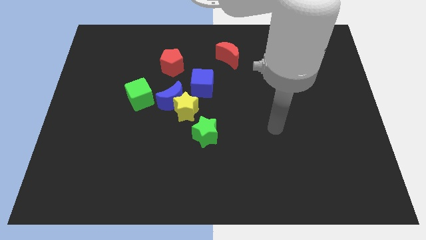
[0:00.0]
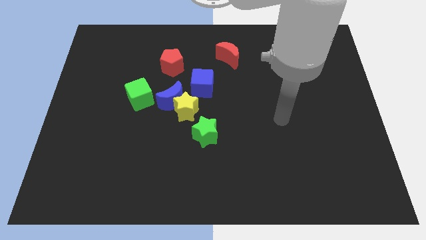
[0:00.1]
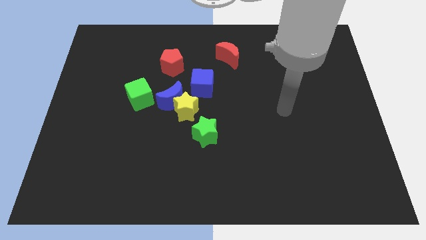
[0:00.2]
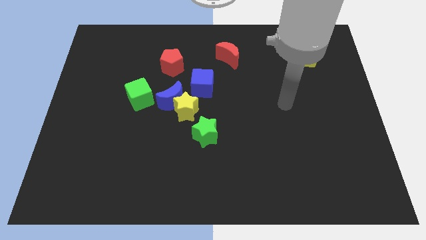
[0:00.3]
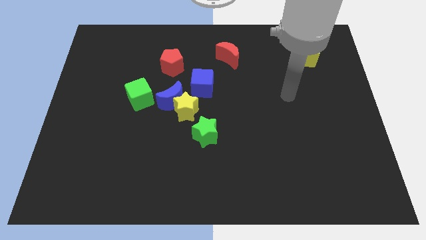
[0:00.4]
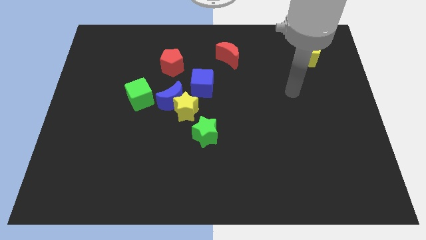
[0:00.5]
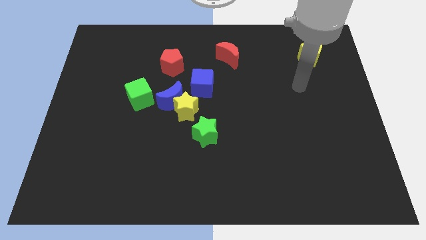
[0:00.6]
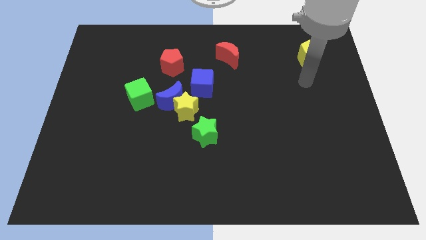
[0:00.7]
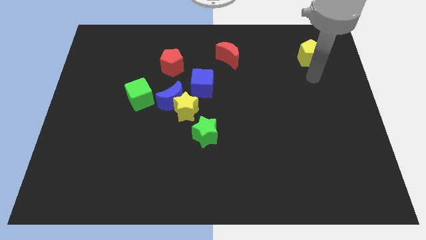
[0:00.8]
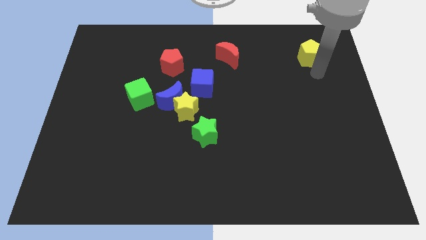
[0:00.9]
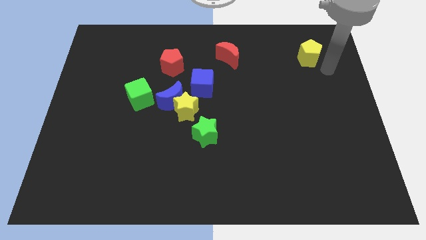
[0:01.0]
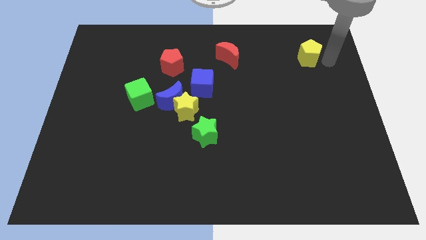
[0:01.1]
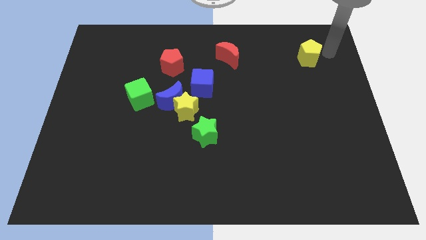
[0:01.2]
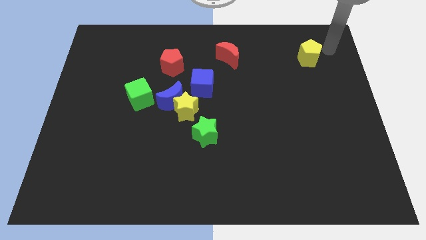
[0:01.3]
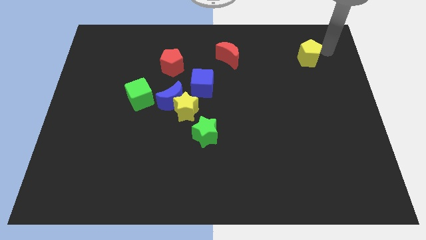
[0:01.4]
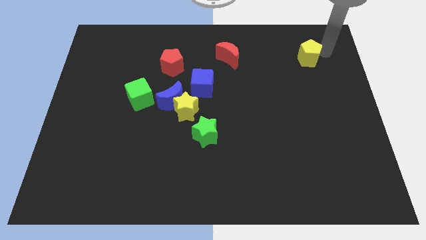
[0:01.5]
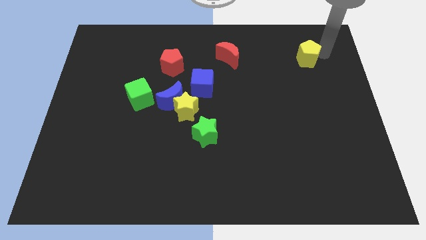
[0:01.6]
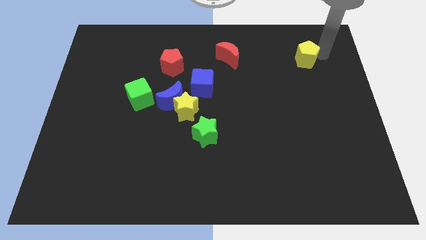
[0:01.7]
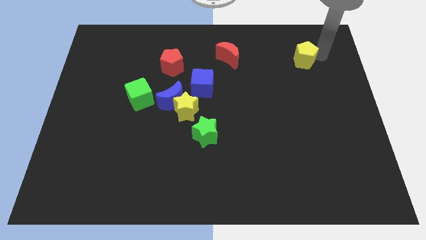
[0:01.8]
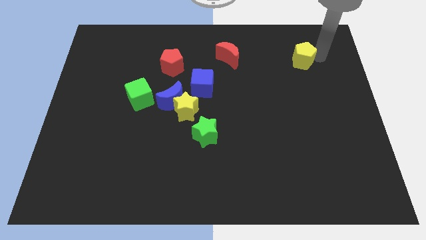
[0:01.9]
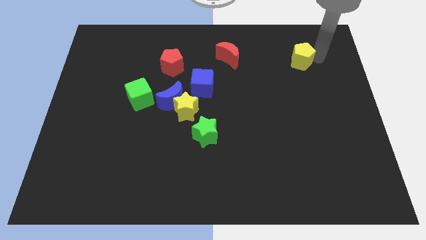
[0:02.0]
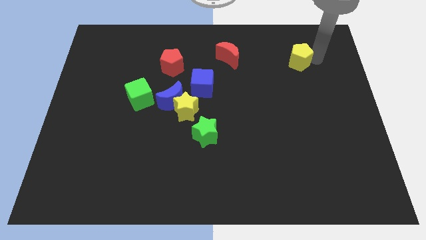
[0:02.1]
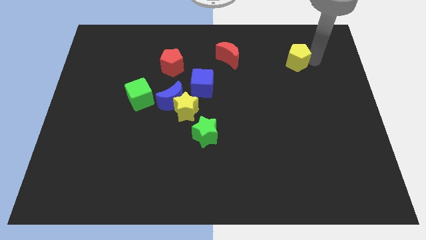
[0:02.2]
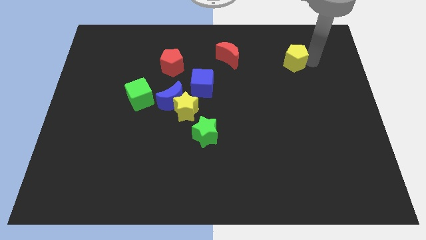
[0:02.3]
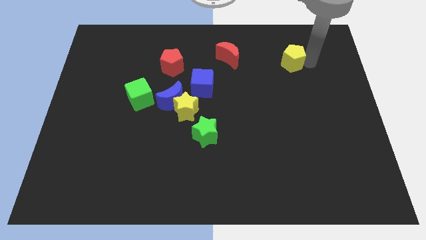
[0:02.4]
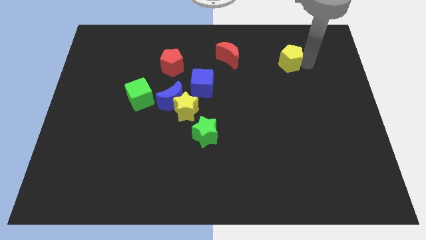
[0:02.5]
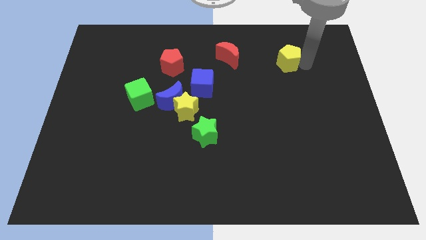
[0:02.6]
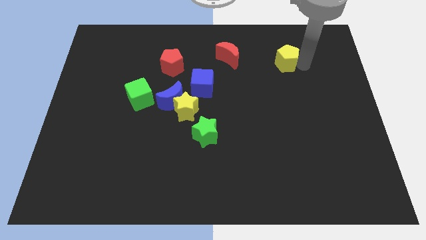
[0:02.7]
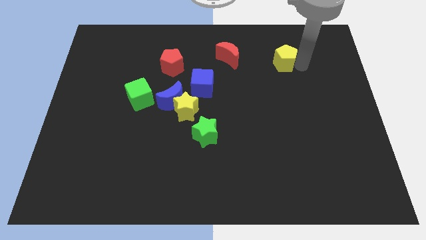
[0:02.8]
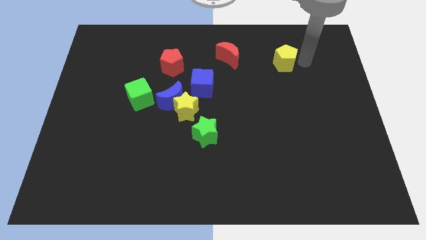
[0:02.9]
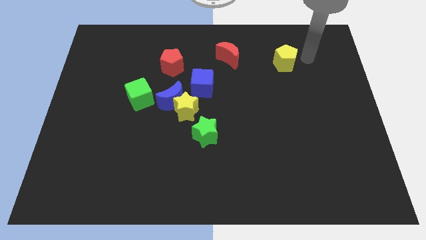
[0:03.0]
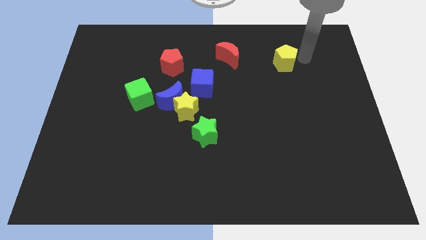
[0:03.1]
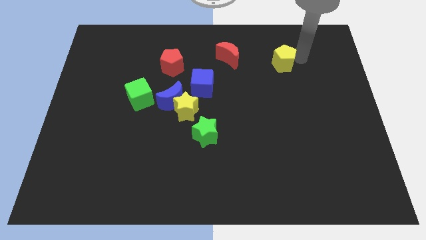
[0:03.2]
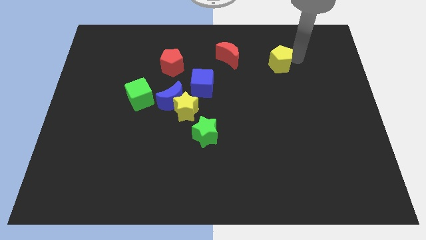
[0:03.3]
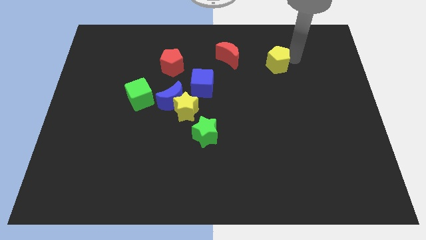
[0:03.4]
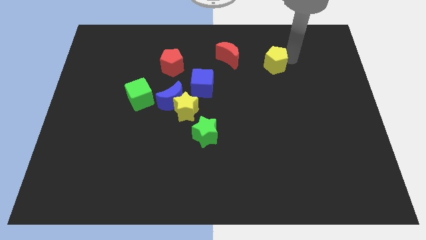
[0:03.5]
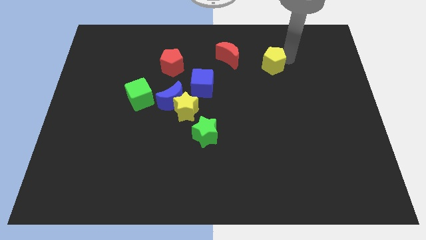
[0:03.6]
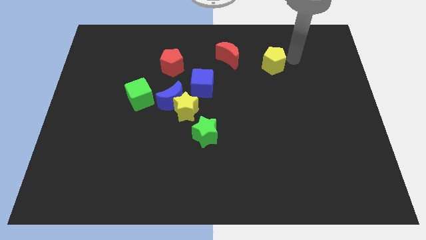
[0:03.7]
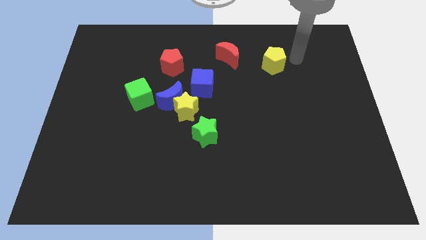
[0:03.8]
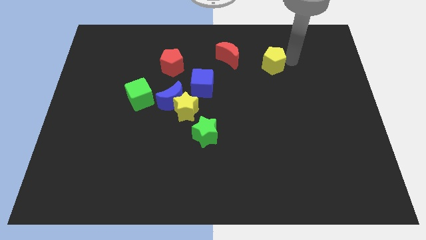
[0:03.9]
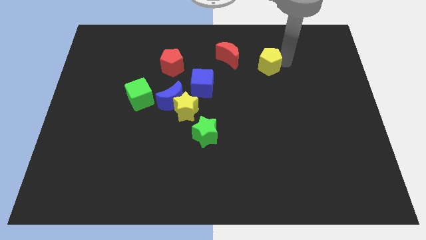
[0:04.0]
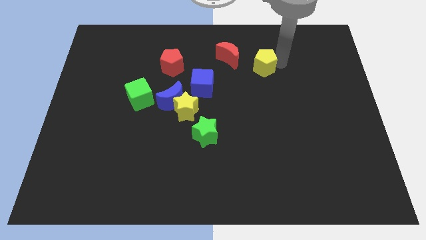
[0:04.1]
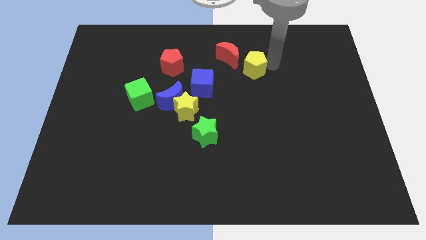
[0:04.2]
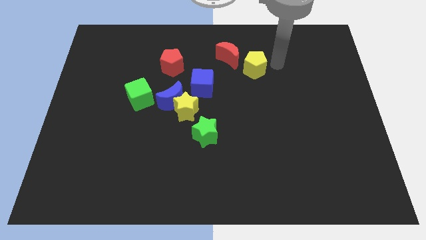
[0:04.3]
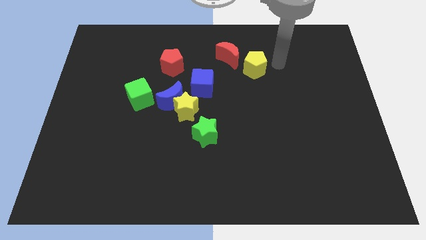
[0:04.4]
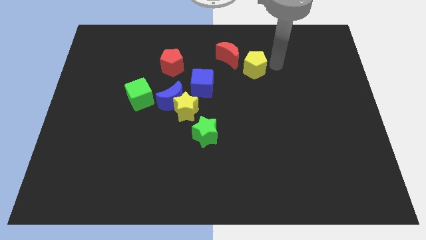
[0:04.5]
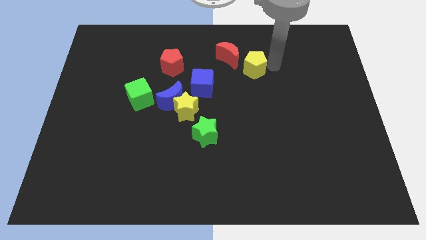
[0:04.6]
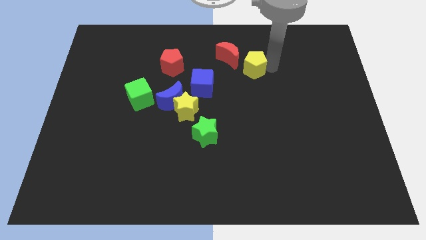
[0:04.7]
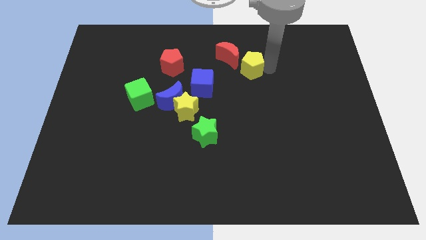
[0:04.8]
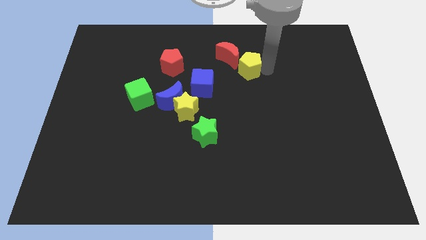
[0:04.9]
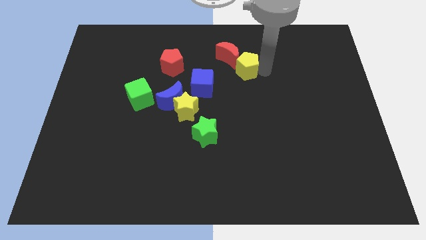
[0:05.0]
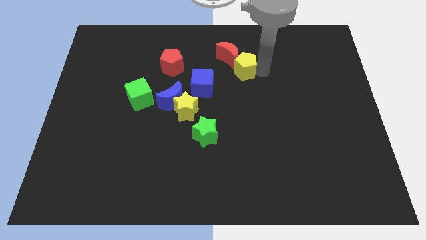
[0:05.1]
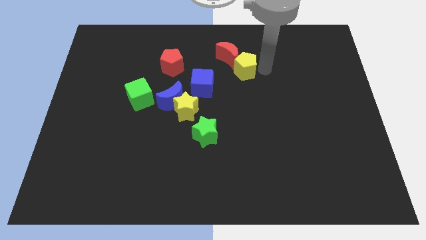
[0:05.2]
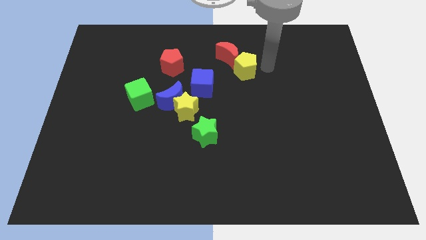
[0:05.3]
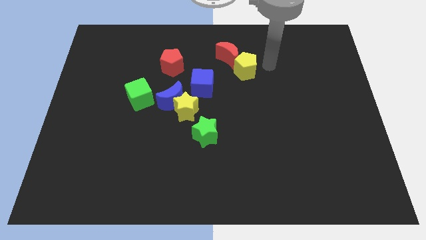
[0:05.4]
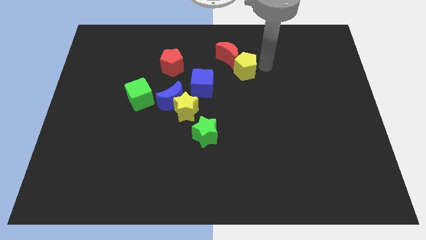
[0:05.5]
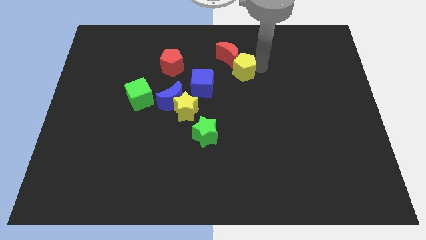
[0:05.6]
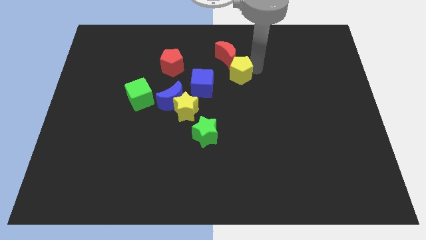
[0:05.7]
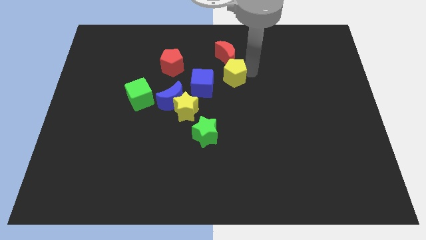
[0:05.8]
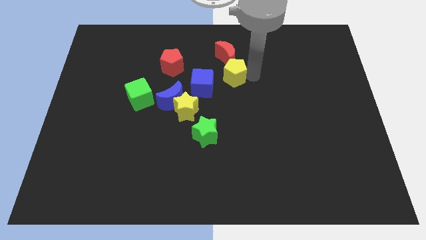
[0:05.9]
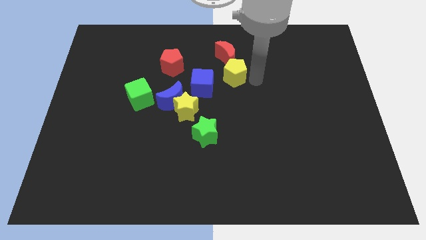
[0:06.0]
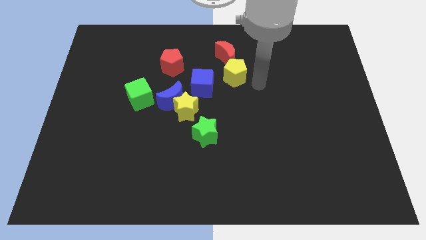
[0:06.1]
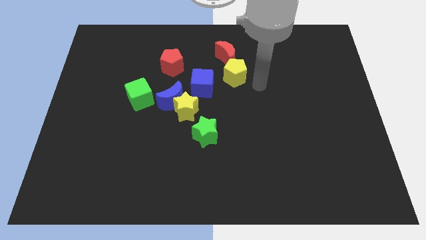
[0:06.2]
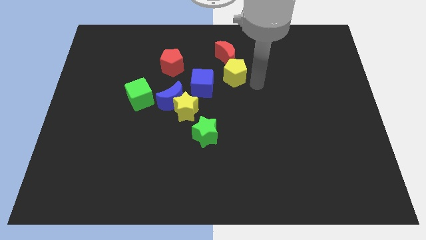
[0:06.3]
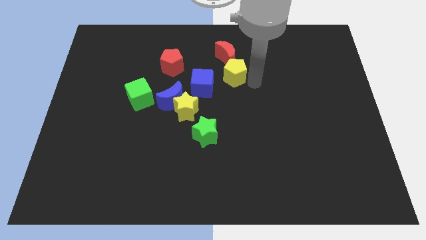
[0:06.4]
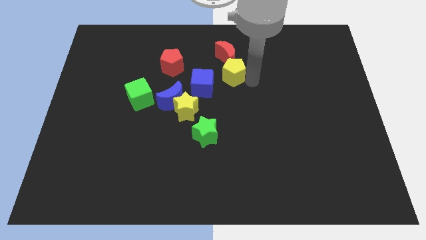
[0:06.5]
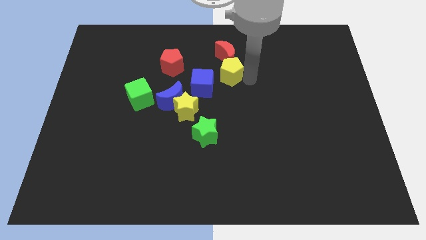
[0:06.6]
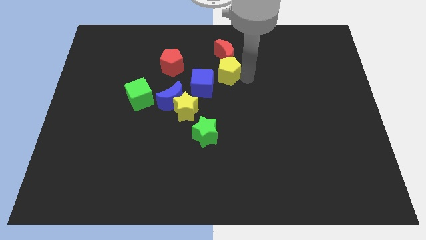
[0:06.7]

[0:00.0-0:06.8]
slide the yellow pentagon left

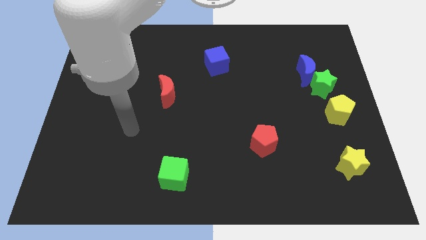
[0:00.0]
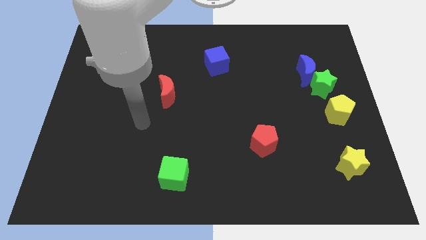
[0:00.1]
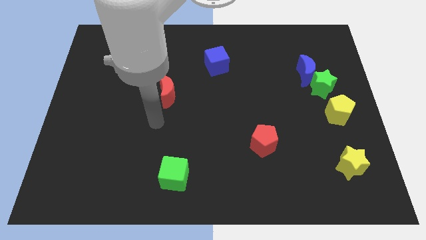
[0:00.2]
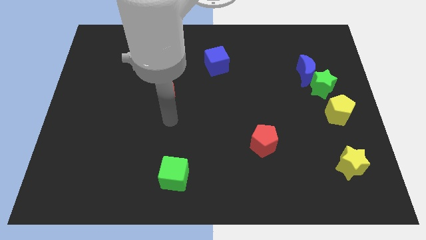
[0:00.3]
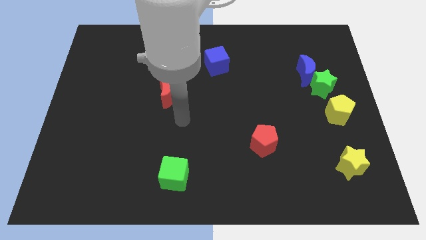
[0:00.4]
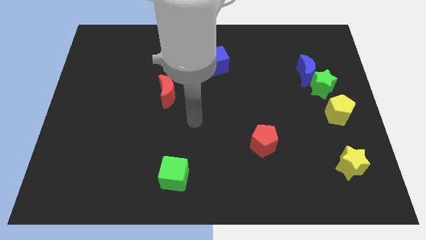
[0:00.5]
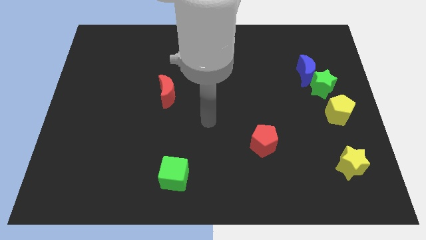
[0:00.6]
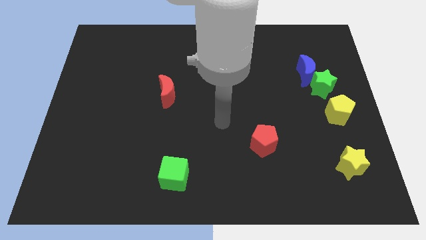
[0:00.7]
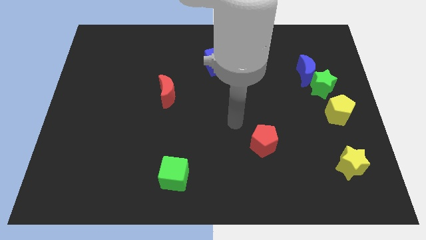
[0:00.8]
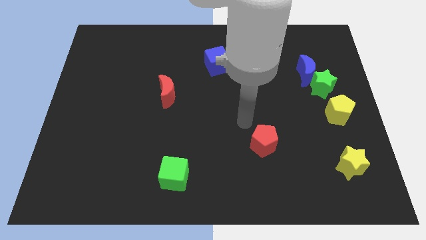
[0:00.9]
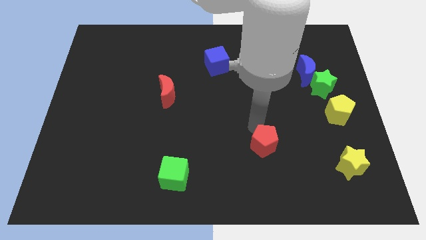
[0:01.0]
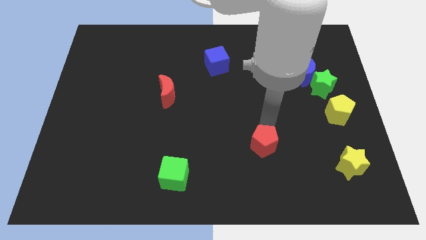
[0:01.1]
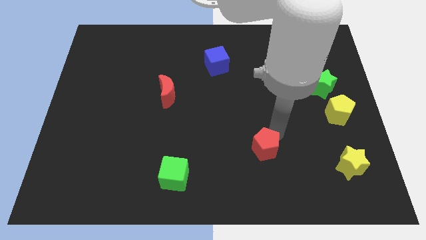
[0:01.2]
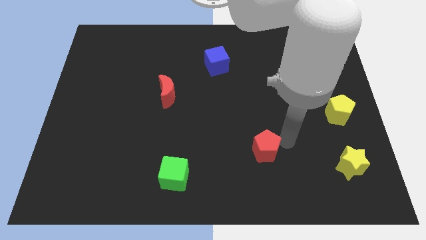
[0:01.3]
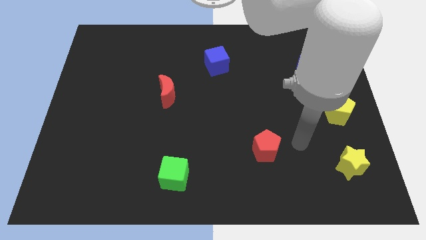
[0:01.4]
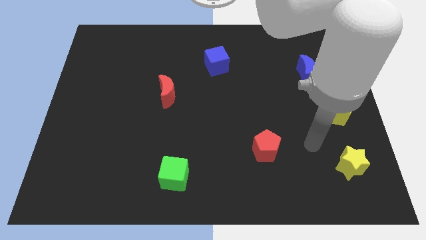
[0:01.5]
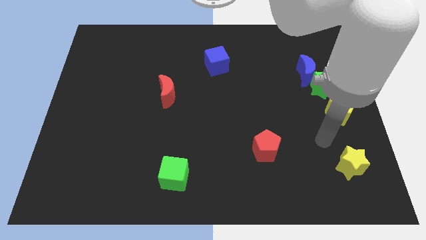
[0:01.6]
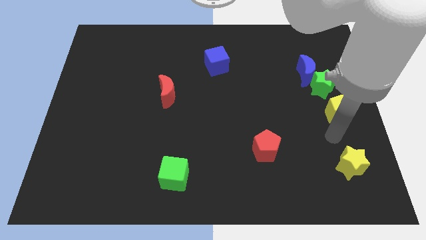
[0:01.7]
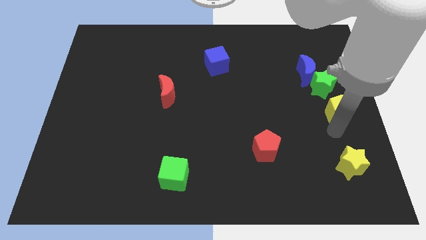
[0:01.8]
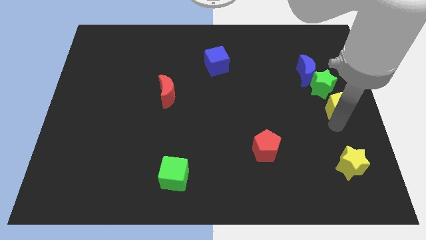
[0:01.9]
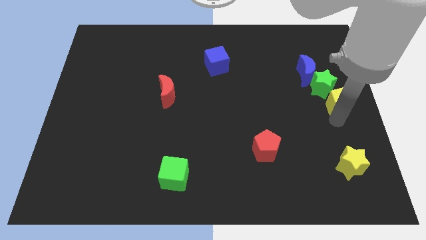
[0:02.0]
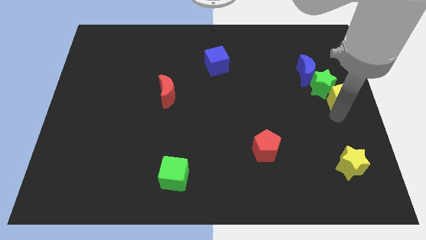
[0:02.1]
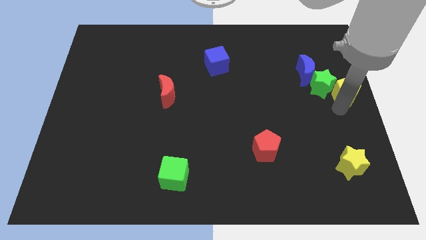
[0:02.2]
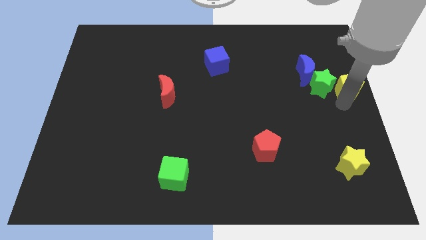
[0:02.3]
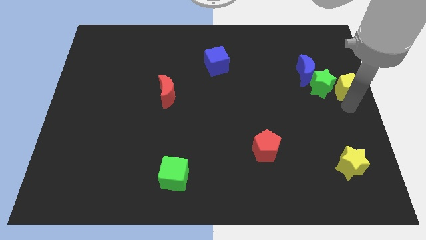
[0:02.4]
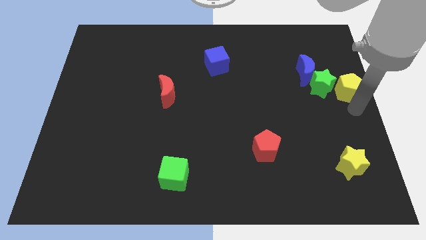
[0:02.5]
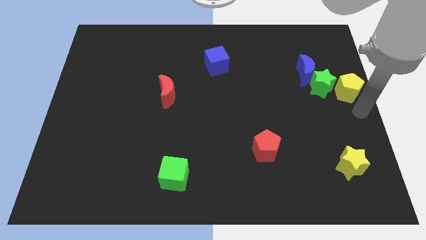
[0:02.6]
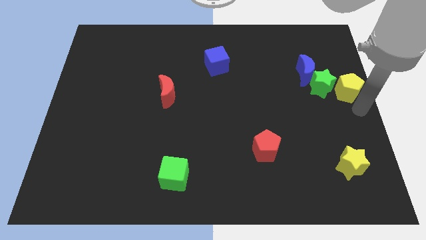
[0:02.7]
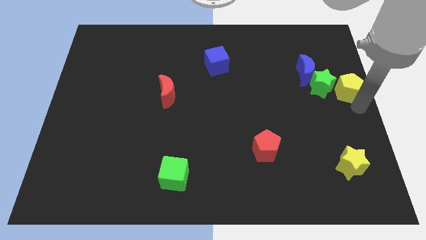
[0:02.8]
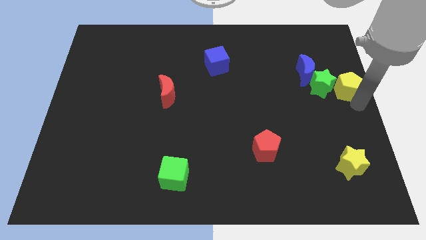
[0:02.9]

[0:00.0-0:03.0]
push the yellow pentagon slightly up
